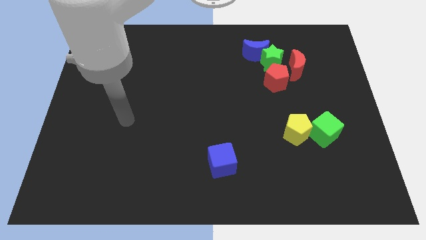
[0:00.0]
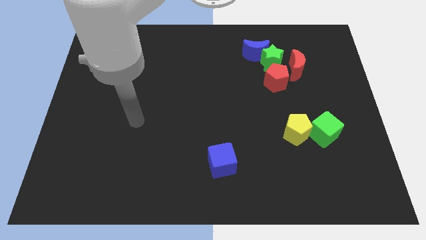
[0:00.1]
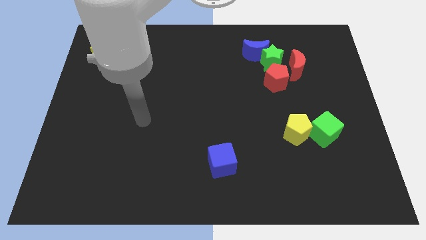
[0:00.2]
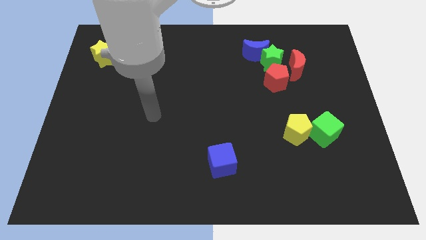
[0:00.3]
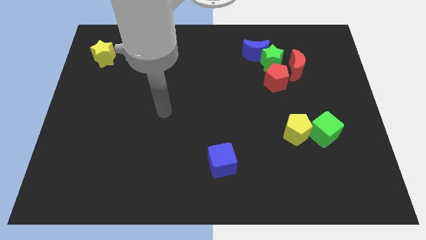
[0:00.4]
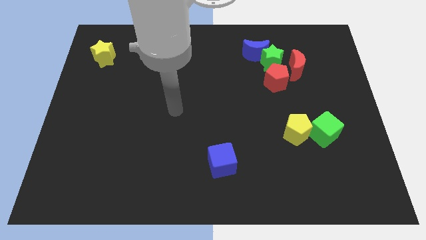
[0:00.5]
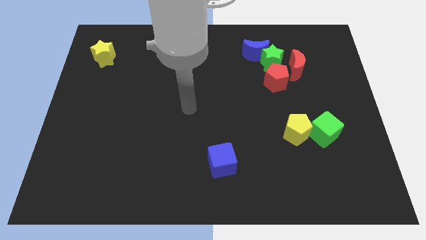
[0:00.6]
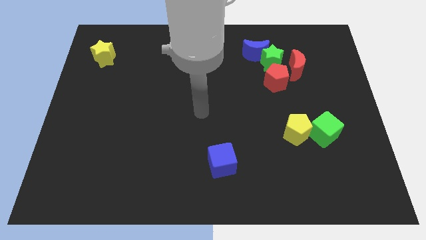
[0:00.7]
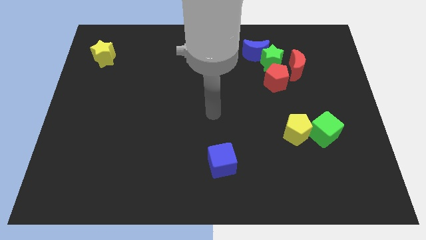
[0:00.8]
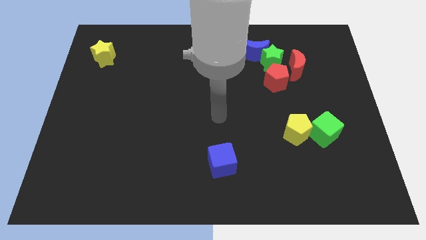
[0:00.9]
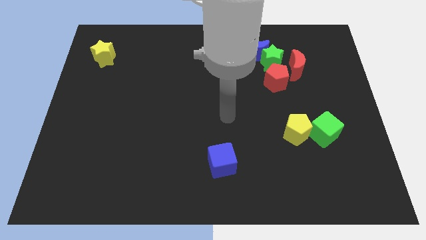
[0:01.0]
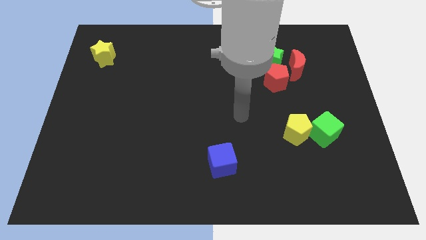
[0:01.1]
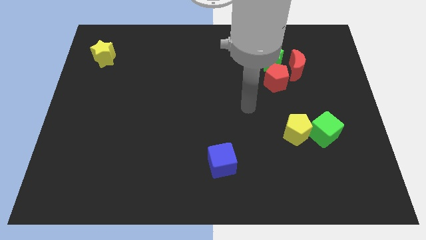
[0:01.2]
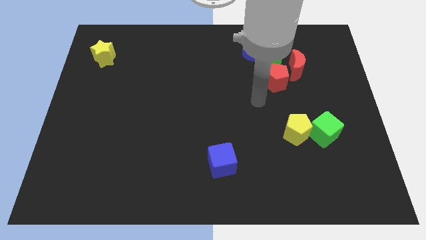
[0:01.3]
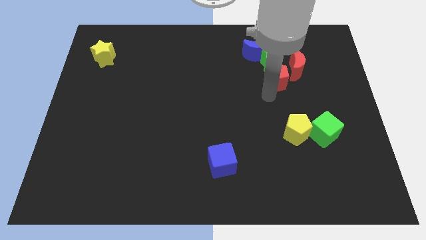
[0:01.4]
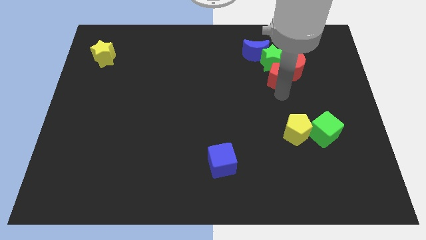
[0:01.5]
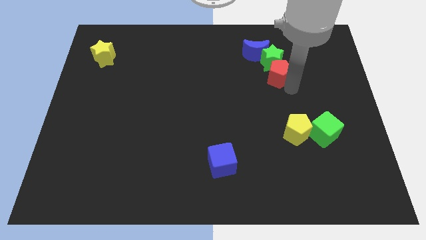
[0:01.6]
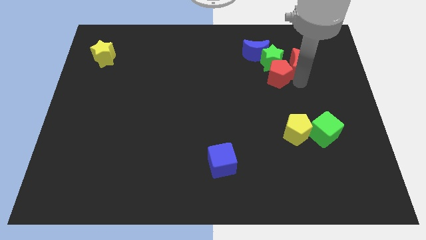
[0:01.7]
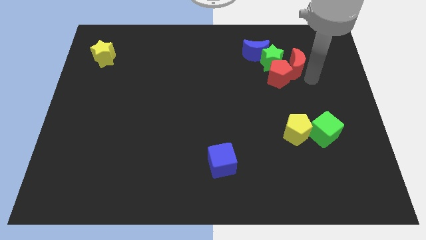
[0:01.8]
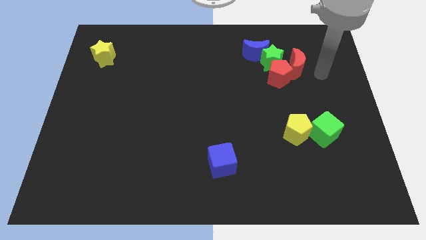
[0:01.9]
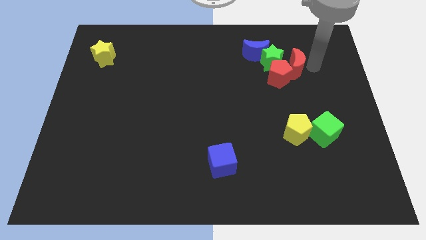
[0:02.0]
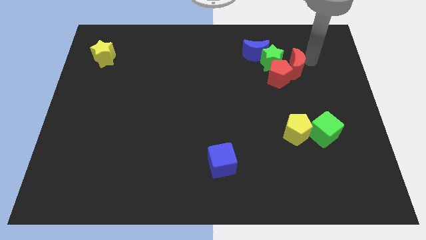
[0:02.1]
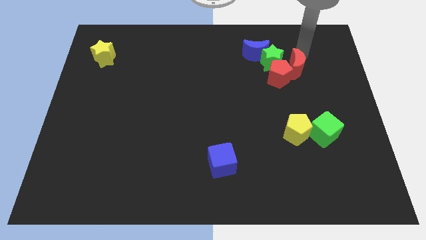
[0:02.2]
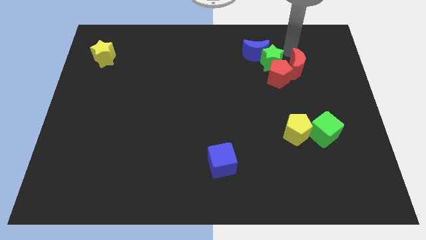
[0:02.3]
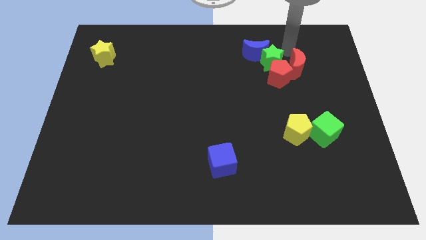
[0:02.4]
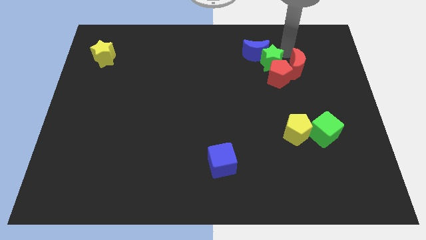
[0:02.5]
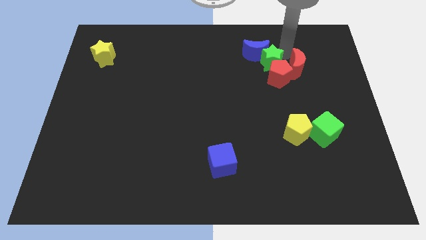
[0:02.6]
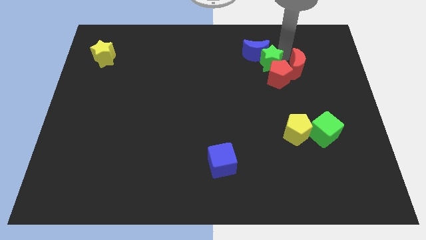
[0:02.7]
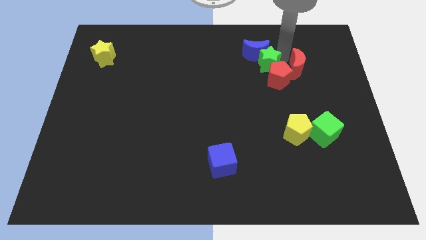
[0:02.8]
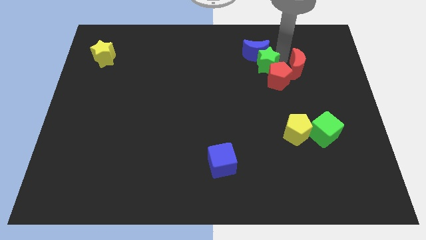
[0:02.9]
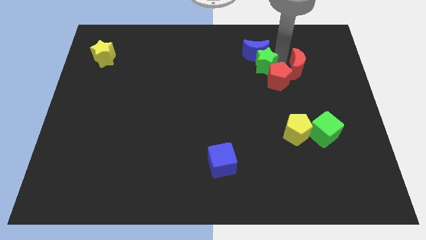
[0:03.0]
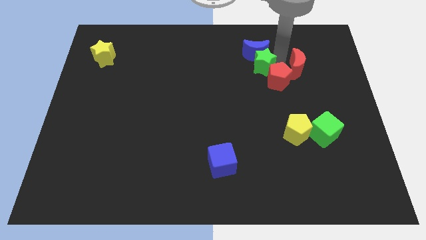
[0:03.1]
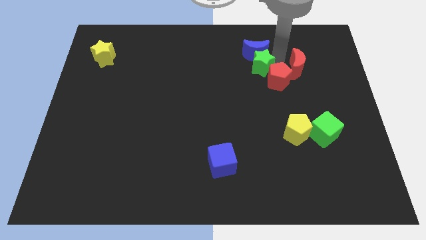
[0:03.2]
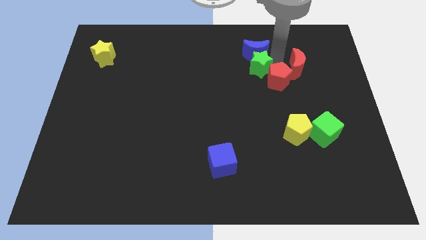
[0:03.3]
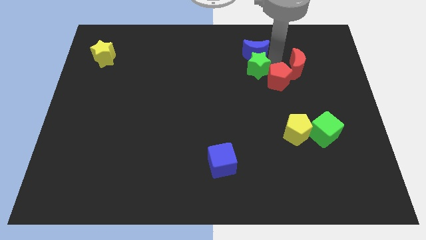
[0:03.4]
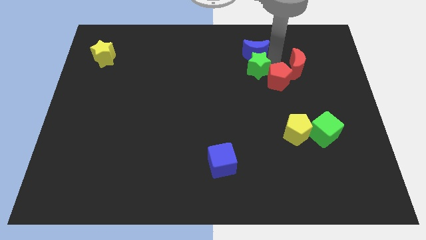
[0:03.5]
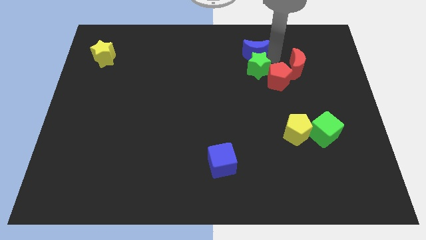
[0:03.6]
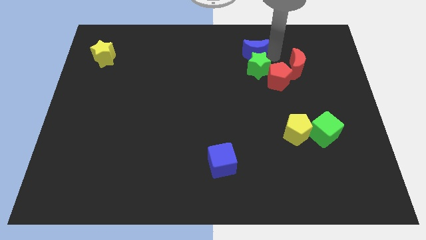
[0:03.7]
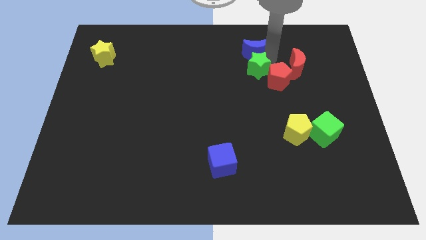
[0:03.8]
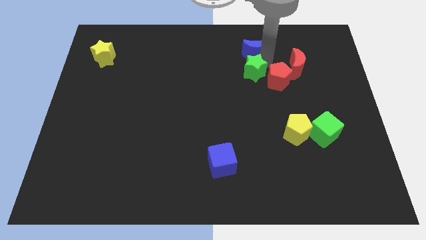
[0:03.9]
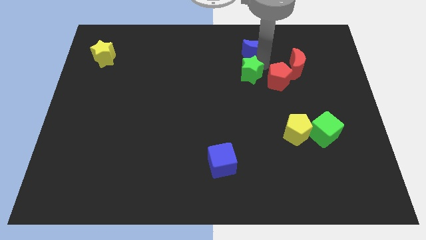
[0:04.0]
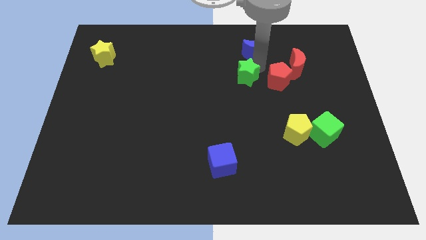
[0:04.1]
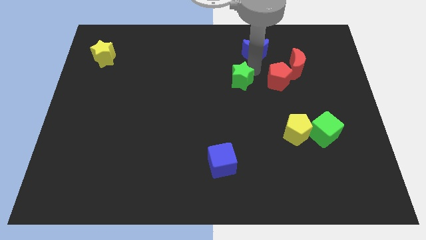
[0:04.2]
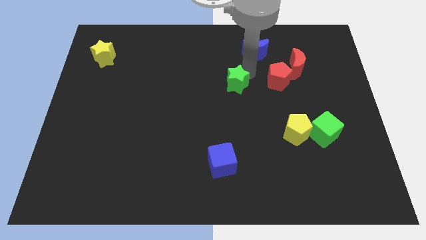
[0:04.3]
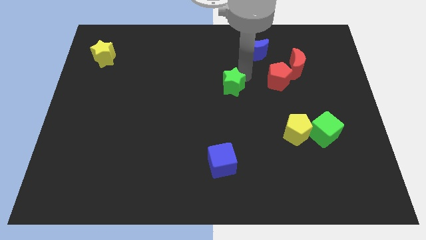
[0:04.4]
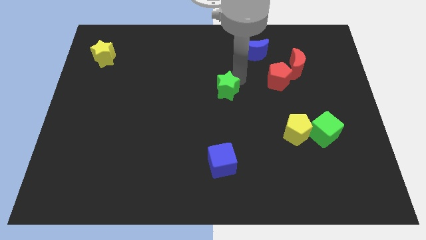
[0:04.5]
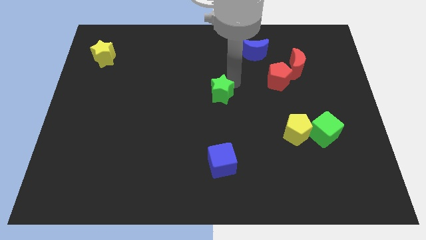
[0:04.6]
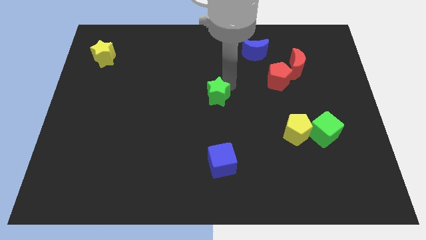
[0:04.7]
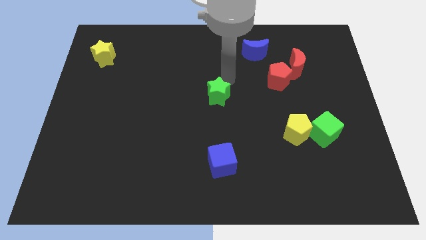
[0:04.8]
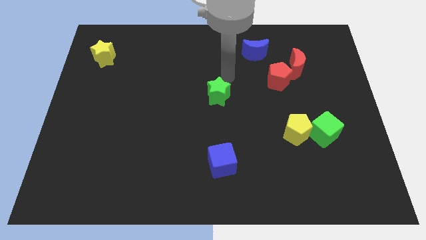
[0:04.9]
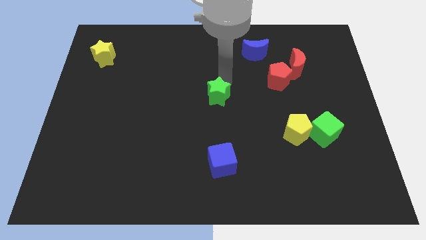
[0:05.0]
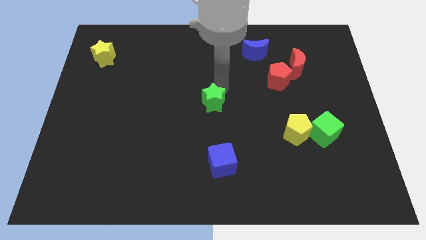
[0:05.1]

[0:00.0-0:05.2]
slide the green star diagonally down and left

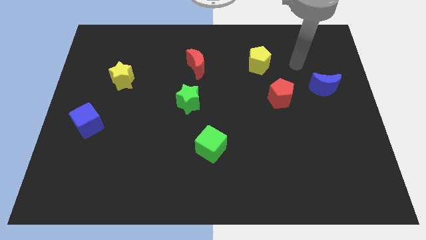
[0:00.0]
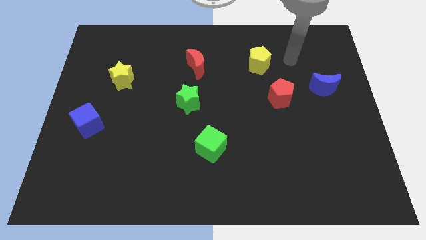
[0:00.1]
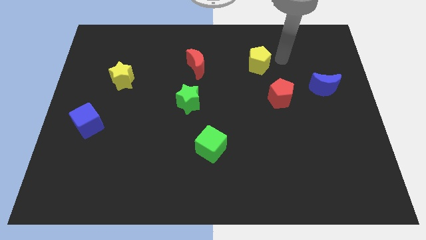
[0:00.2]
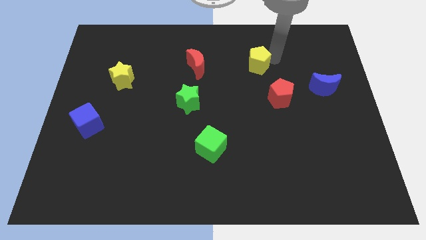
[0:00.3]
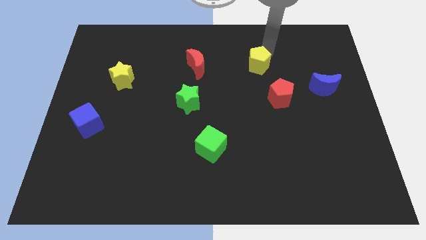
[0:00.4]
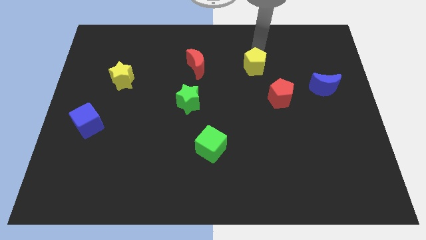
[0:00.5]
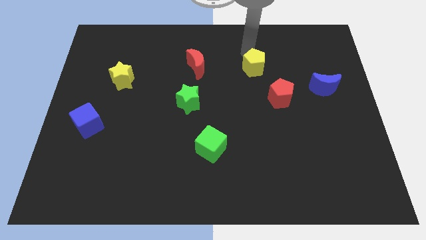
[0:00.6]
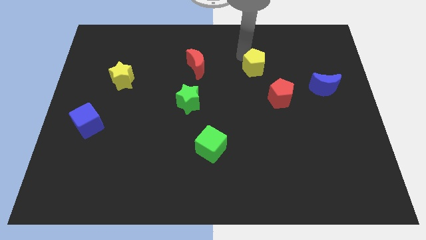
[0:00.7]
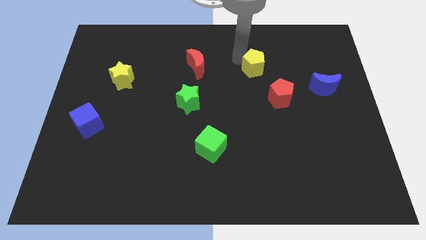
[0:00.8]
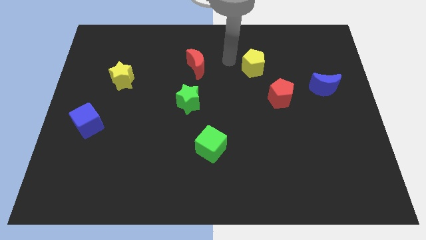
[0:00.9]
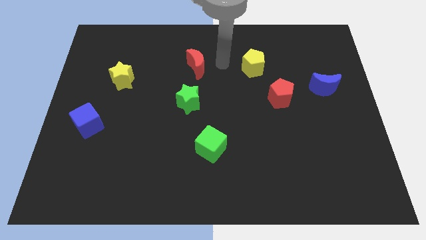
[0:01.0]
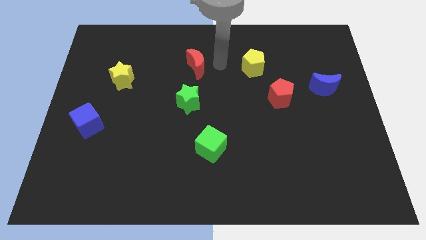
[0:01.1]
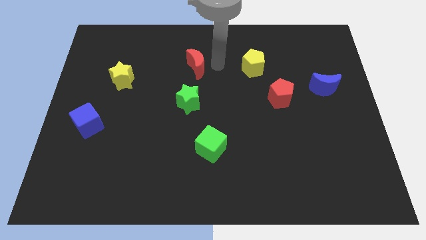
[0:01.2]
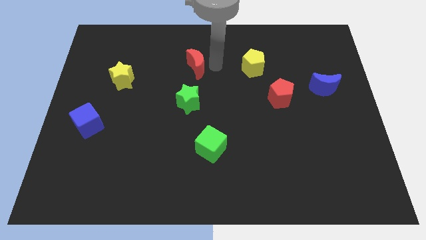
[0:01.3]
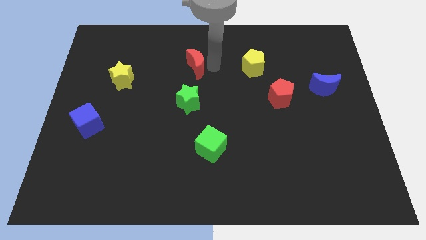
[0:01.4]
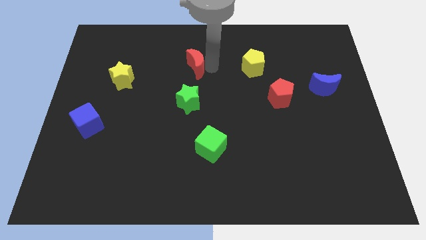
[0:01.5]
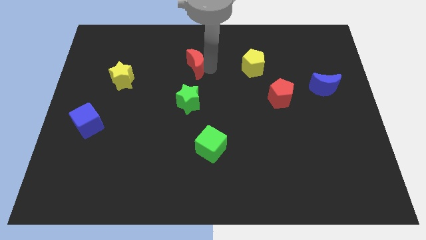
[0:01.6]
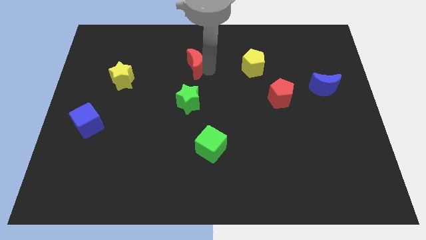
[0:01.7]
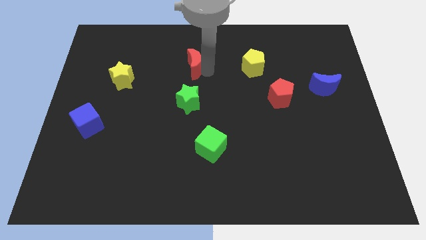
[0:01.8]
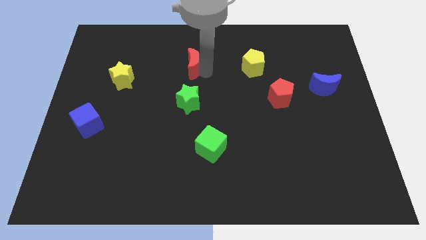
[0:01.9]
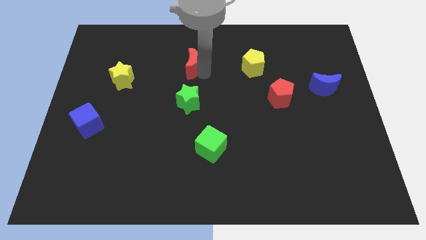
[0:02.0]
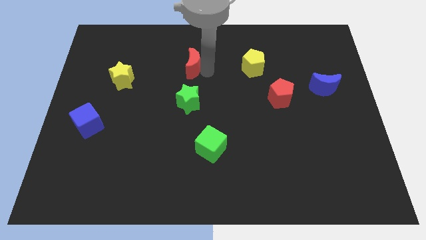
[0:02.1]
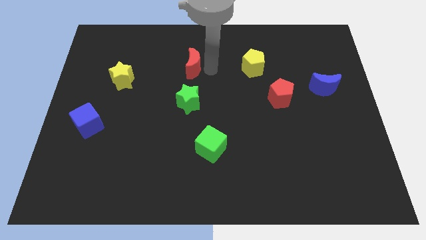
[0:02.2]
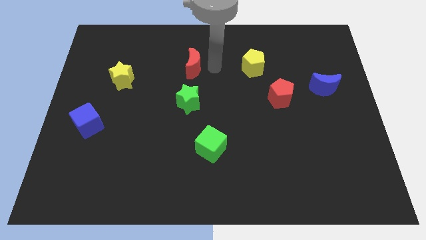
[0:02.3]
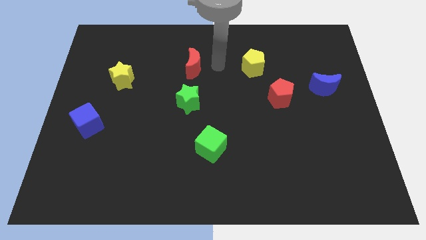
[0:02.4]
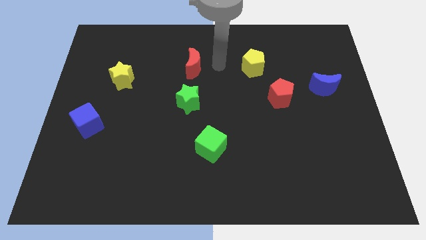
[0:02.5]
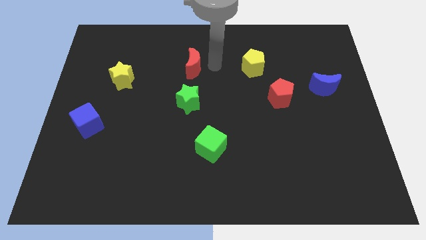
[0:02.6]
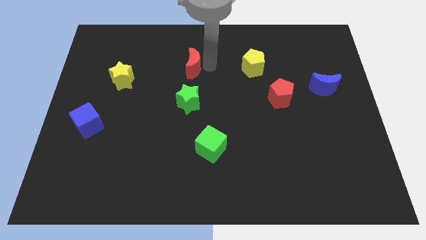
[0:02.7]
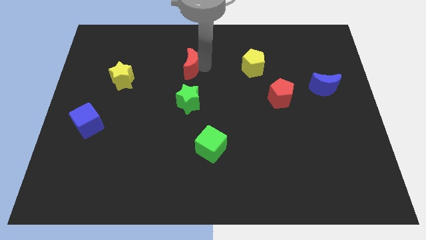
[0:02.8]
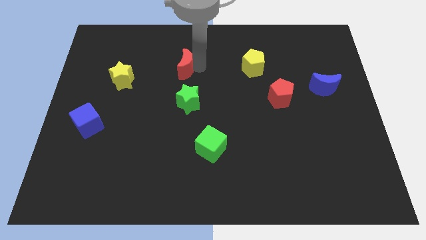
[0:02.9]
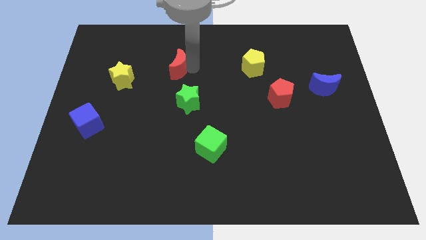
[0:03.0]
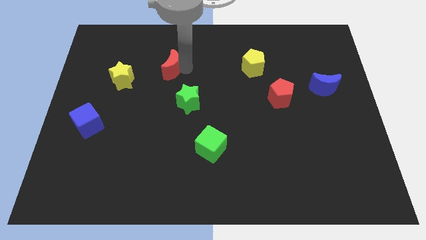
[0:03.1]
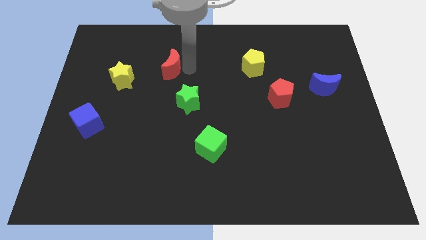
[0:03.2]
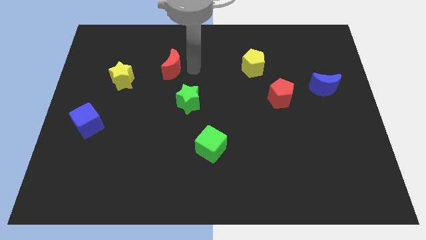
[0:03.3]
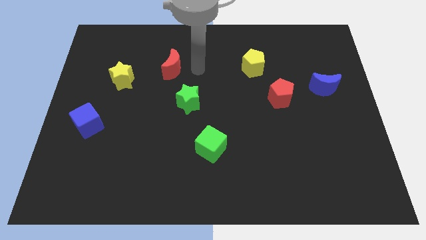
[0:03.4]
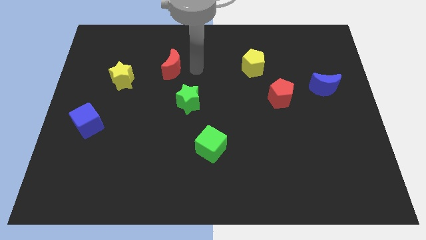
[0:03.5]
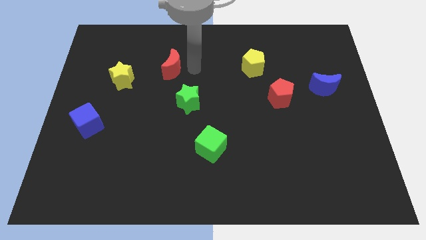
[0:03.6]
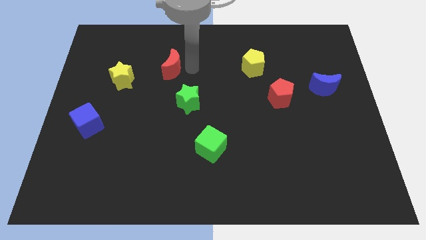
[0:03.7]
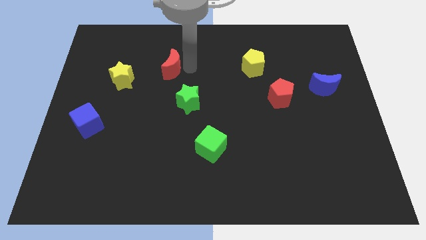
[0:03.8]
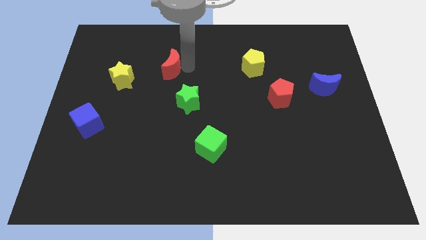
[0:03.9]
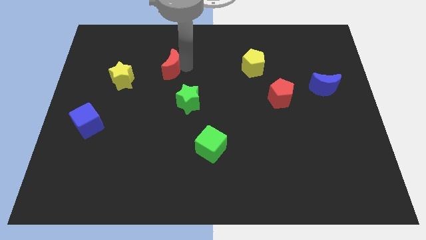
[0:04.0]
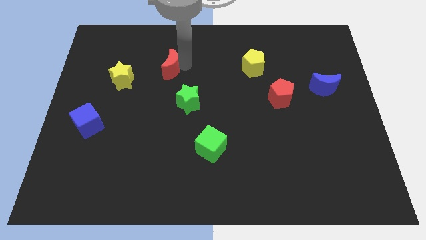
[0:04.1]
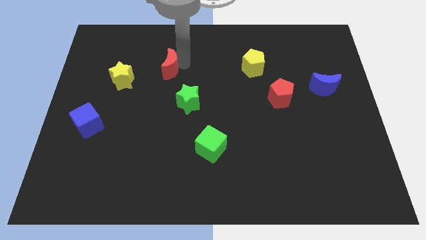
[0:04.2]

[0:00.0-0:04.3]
slide the red moon to the left a bit
